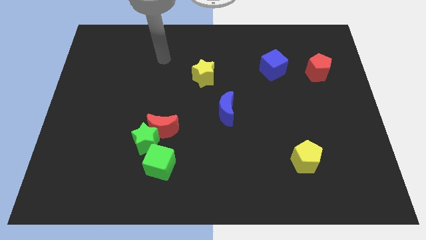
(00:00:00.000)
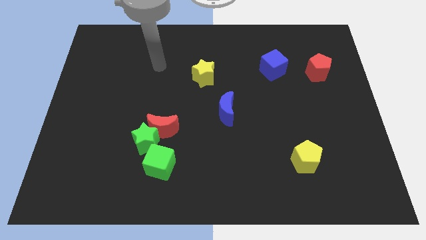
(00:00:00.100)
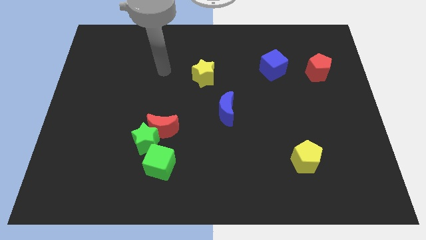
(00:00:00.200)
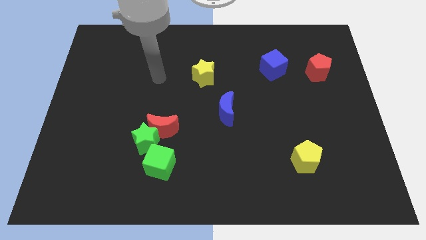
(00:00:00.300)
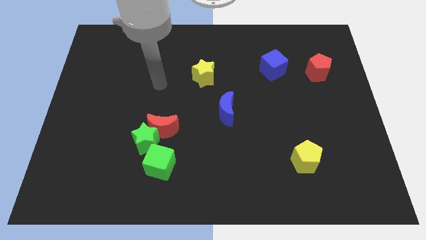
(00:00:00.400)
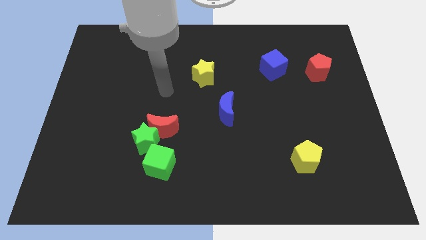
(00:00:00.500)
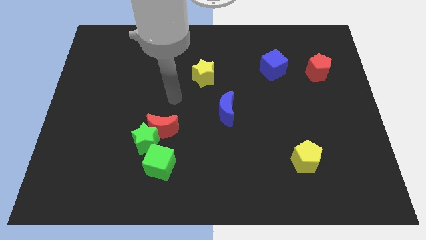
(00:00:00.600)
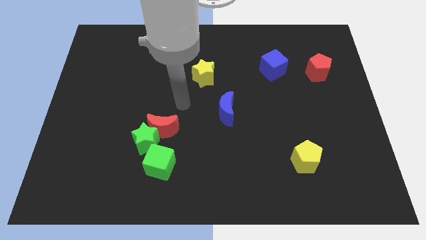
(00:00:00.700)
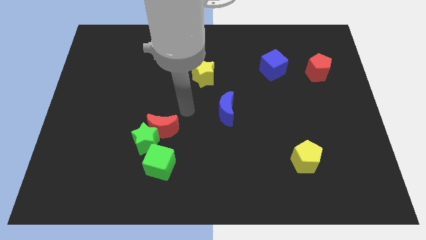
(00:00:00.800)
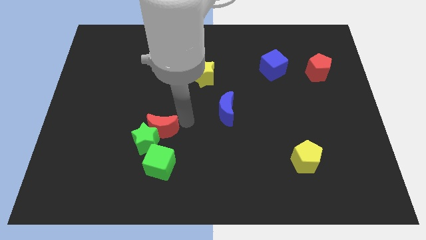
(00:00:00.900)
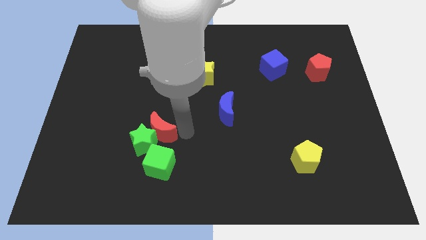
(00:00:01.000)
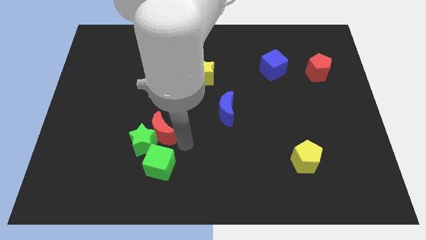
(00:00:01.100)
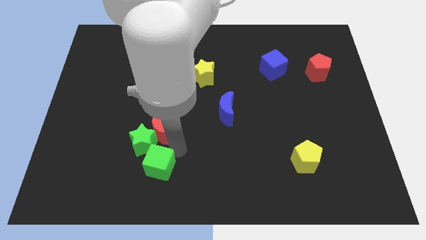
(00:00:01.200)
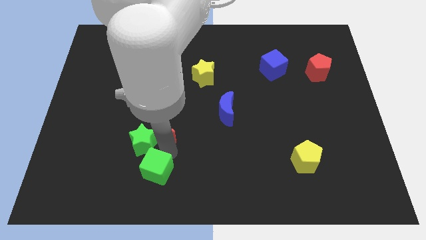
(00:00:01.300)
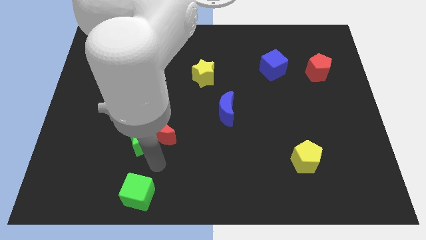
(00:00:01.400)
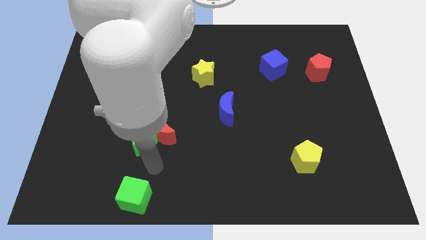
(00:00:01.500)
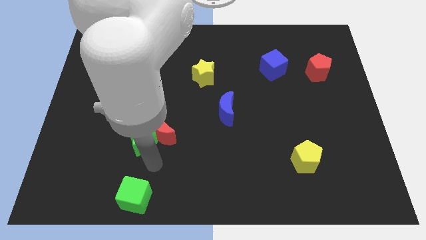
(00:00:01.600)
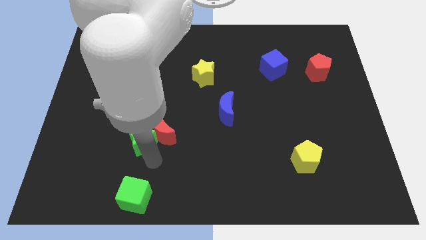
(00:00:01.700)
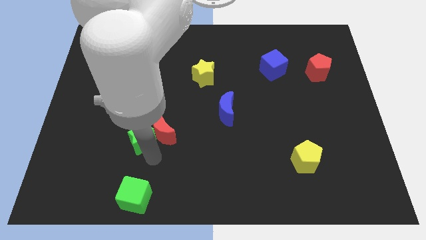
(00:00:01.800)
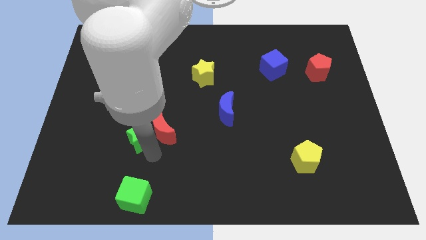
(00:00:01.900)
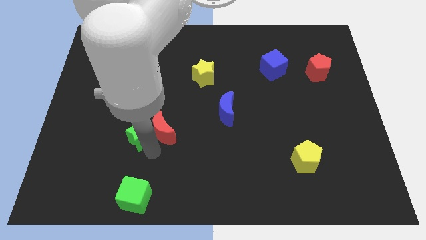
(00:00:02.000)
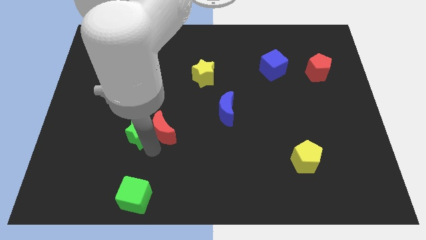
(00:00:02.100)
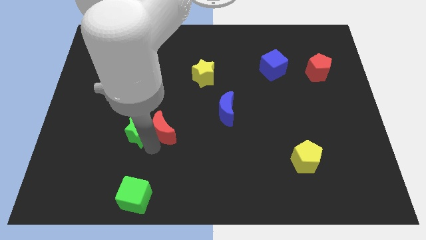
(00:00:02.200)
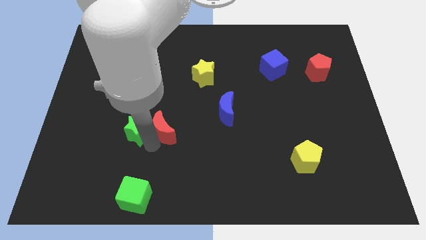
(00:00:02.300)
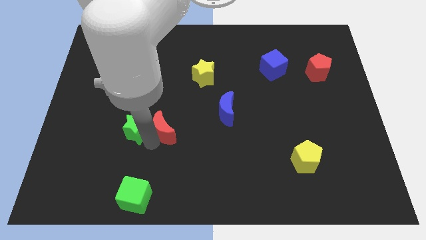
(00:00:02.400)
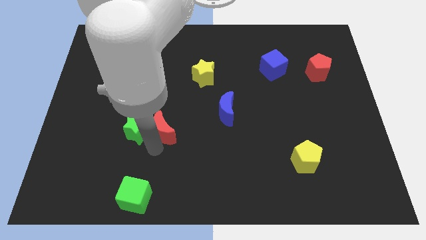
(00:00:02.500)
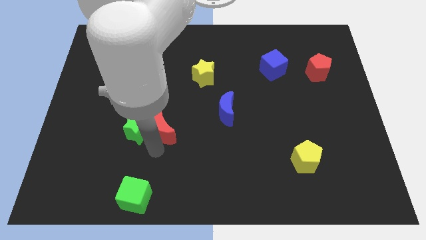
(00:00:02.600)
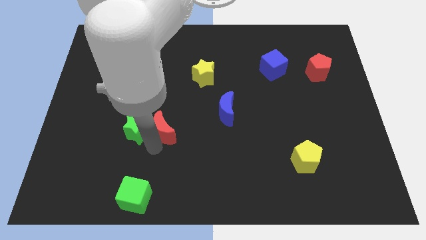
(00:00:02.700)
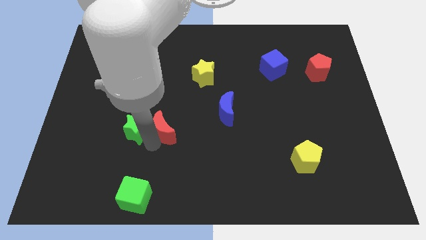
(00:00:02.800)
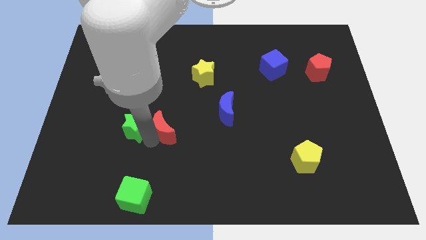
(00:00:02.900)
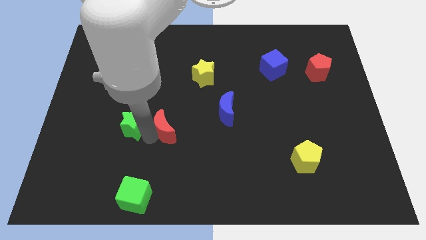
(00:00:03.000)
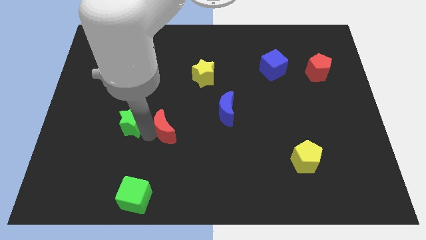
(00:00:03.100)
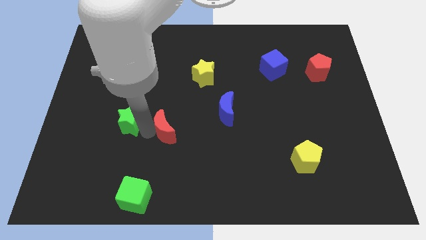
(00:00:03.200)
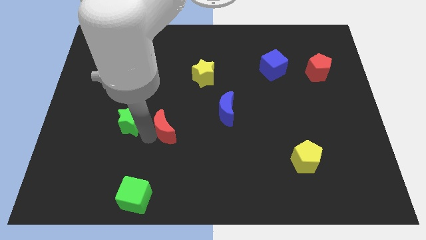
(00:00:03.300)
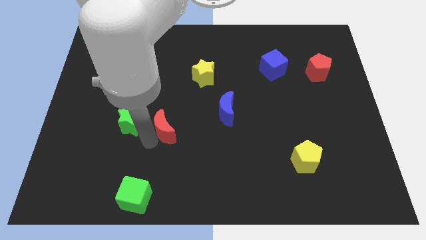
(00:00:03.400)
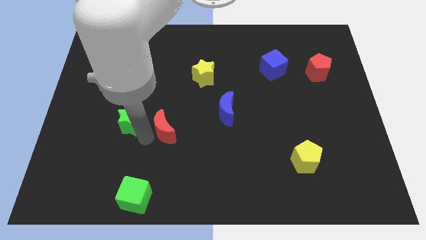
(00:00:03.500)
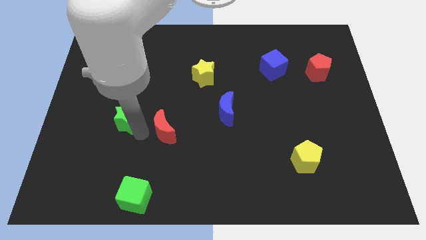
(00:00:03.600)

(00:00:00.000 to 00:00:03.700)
move the green star slightly up and then to the left

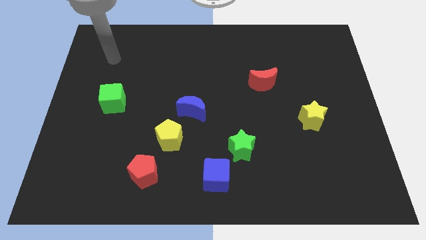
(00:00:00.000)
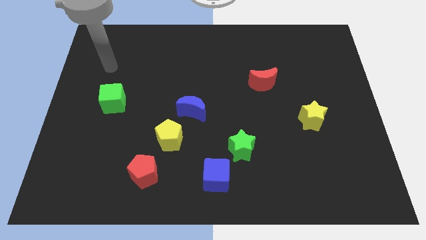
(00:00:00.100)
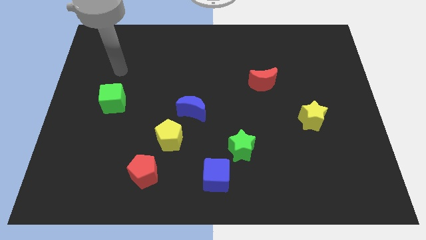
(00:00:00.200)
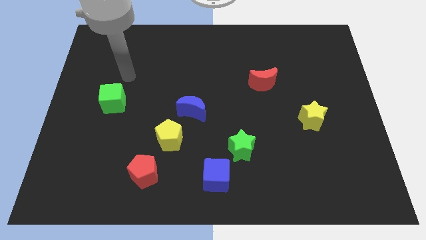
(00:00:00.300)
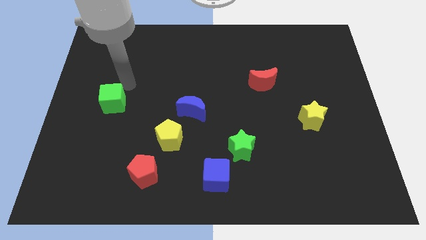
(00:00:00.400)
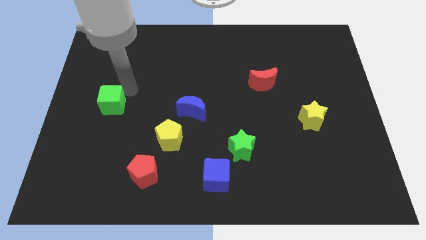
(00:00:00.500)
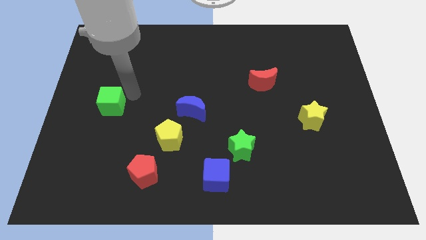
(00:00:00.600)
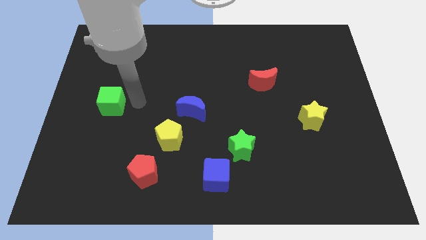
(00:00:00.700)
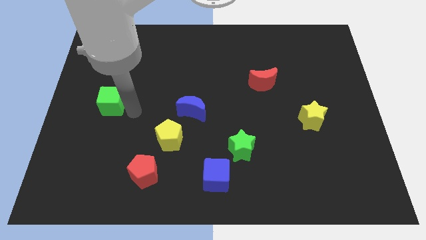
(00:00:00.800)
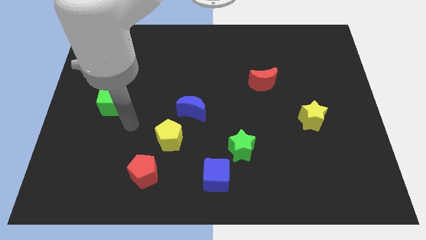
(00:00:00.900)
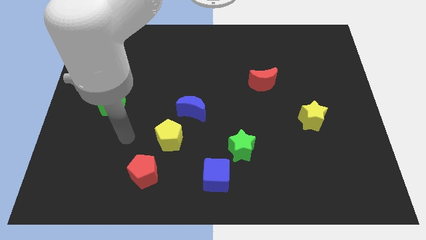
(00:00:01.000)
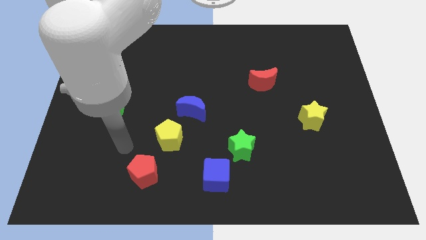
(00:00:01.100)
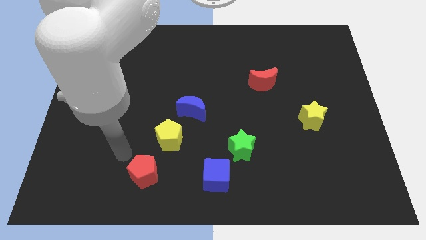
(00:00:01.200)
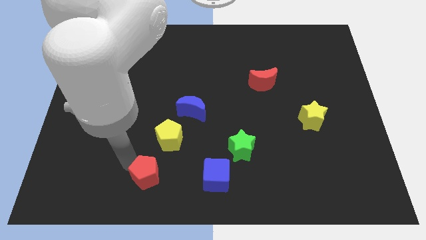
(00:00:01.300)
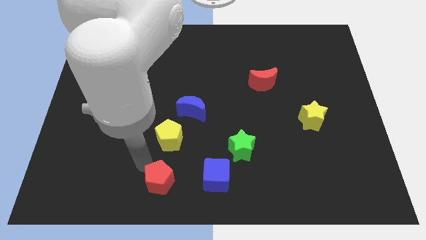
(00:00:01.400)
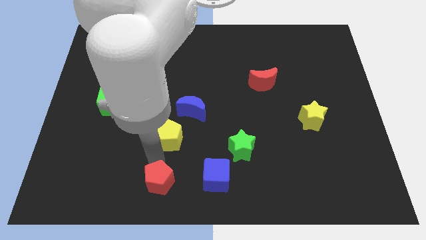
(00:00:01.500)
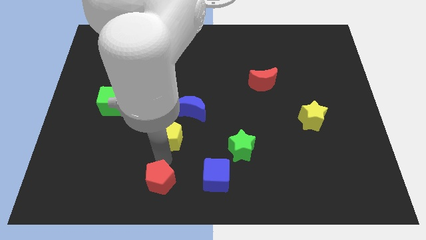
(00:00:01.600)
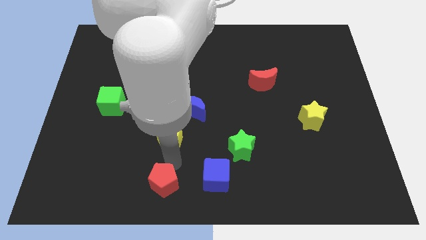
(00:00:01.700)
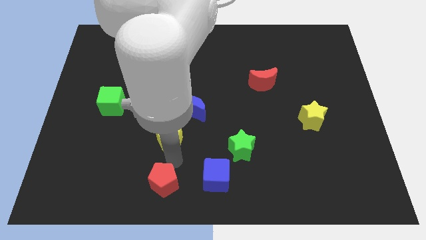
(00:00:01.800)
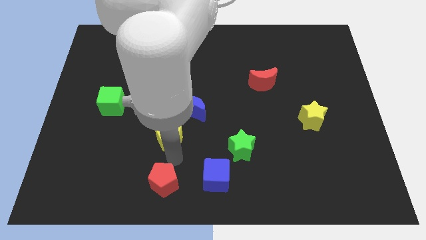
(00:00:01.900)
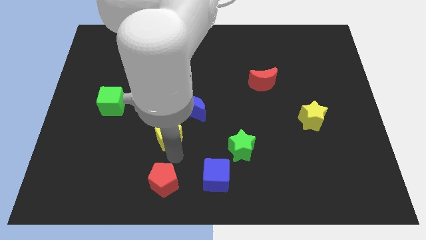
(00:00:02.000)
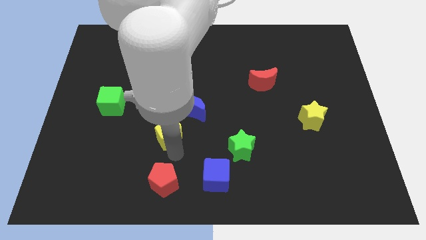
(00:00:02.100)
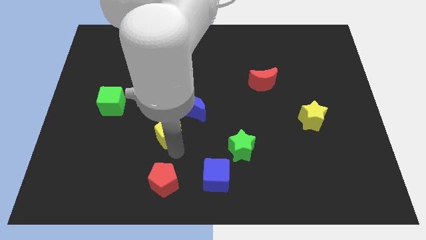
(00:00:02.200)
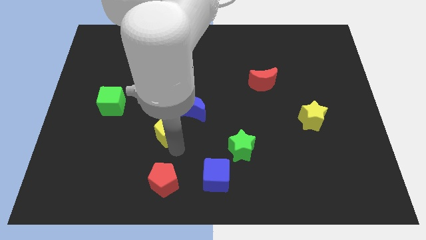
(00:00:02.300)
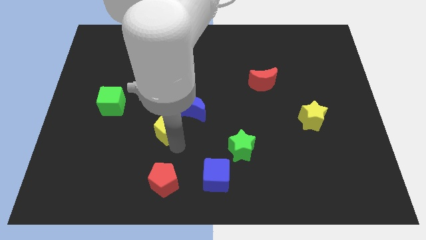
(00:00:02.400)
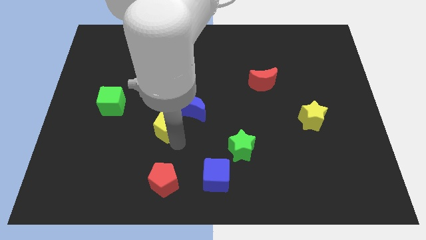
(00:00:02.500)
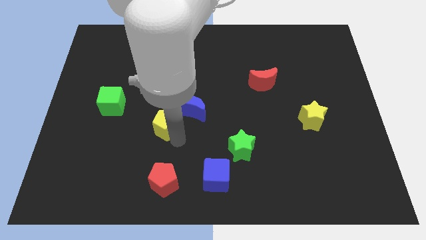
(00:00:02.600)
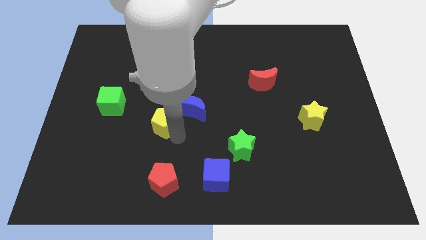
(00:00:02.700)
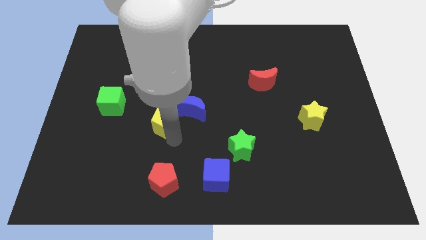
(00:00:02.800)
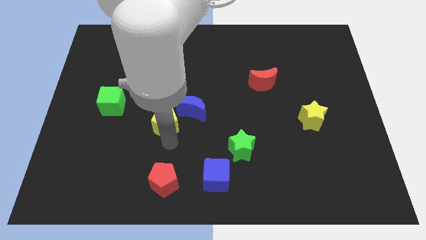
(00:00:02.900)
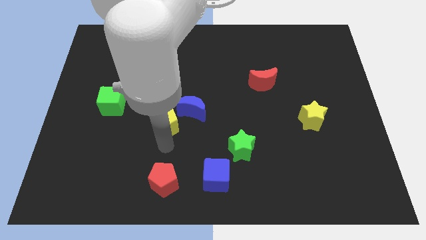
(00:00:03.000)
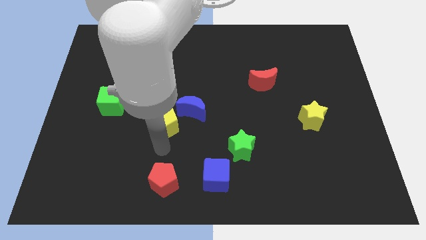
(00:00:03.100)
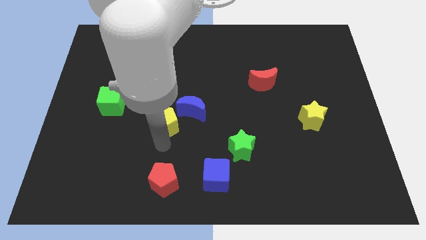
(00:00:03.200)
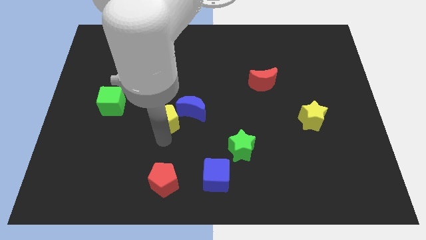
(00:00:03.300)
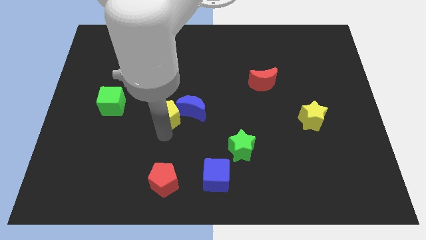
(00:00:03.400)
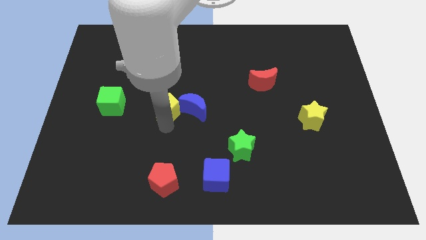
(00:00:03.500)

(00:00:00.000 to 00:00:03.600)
slightly slide the yellow pentagon up

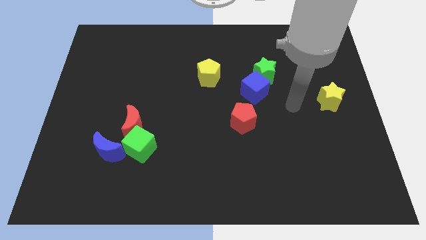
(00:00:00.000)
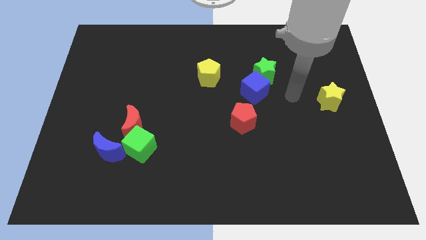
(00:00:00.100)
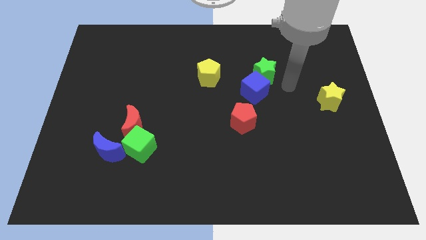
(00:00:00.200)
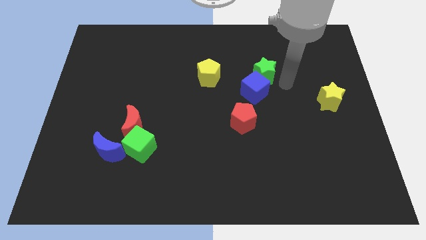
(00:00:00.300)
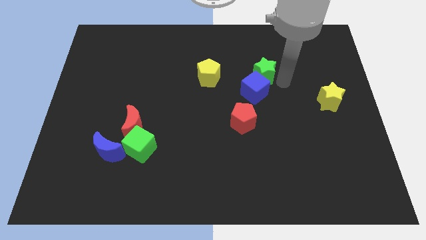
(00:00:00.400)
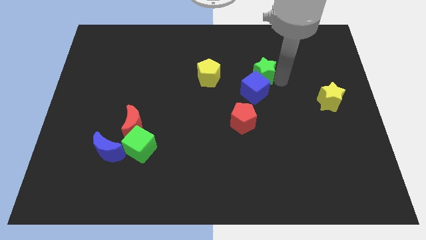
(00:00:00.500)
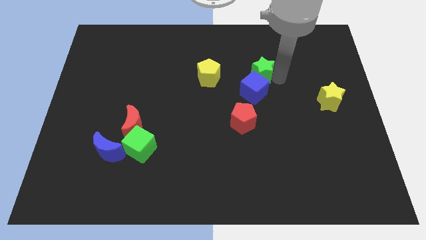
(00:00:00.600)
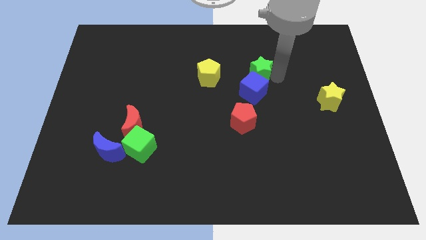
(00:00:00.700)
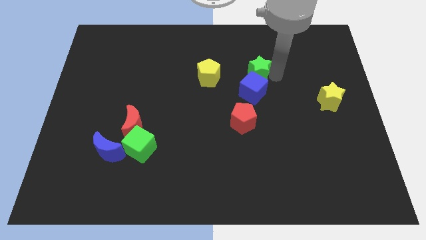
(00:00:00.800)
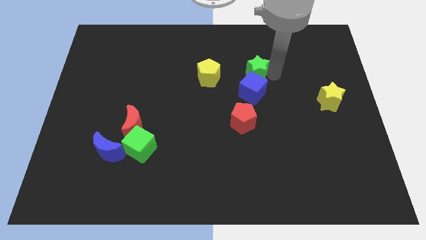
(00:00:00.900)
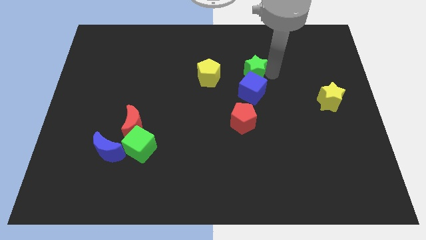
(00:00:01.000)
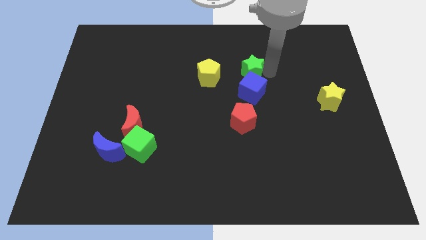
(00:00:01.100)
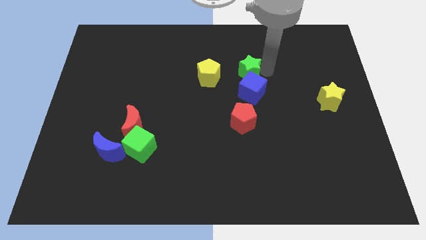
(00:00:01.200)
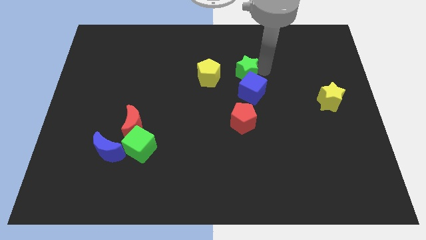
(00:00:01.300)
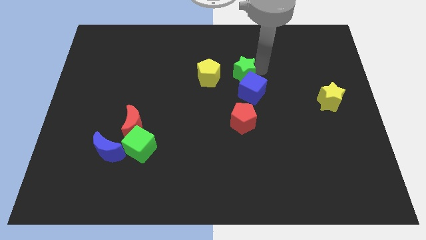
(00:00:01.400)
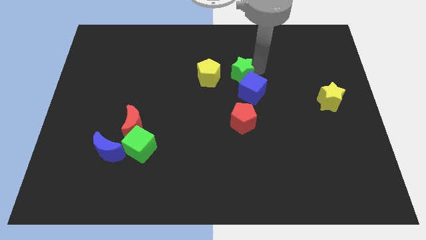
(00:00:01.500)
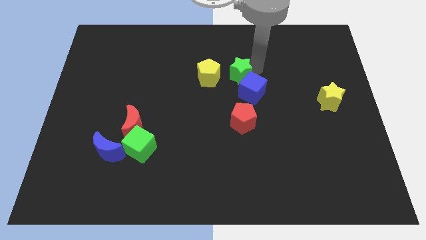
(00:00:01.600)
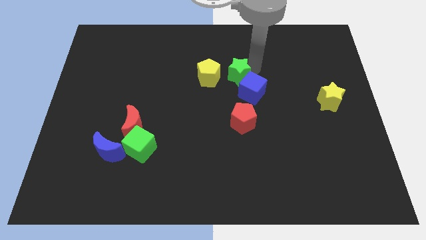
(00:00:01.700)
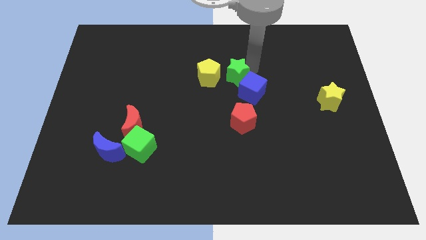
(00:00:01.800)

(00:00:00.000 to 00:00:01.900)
move the green star to the left somewhat
